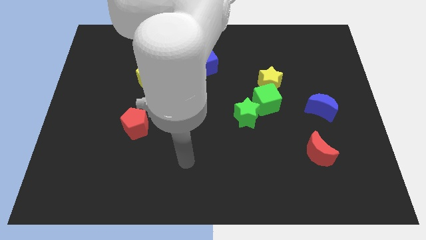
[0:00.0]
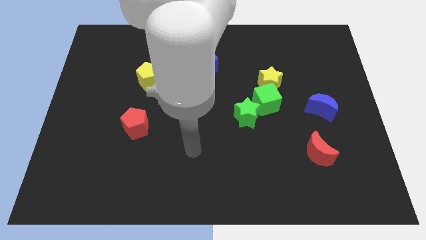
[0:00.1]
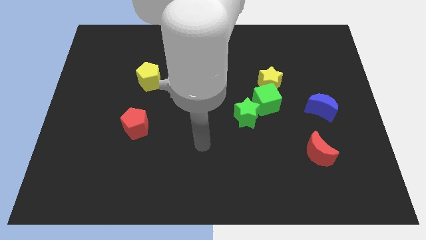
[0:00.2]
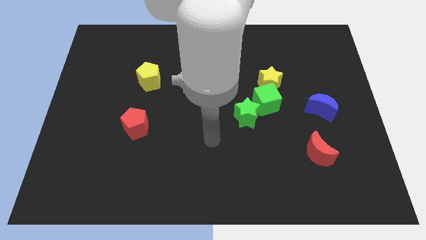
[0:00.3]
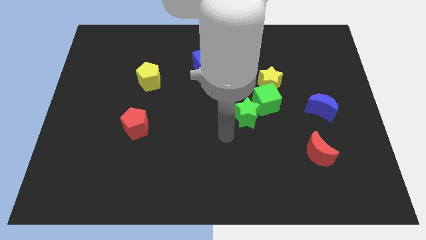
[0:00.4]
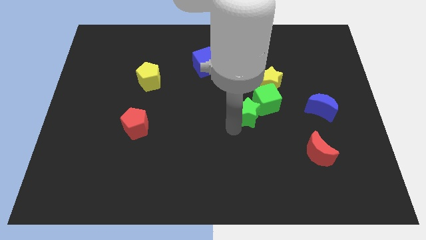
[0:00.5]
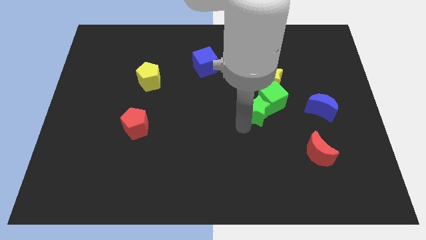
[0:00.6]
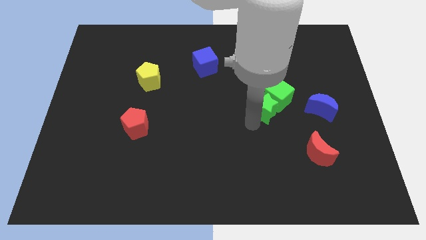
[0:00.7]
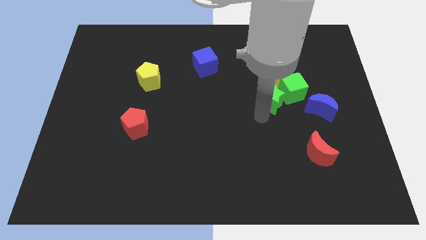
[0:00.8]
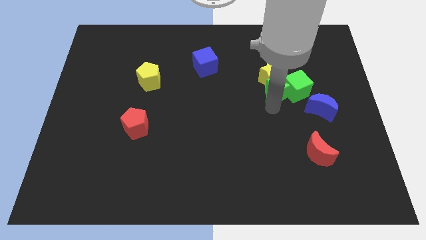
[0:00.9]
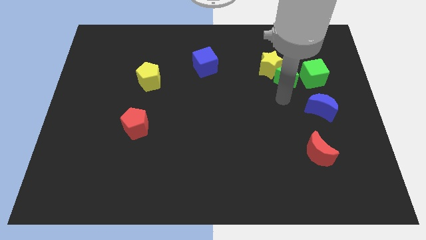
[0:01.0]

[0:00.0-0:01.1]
move the yellow star away from the green cube

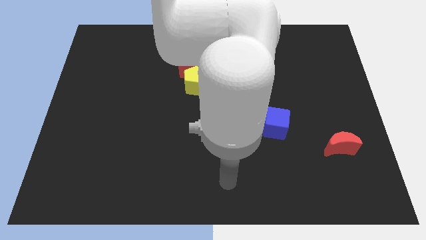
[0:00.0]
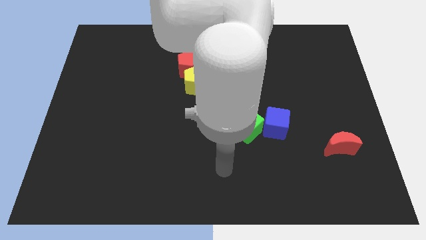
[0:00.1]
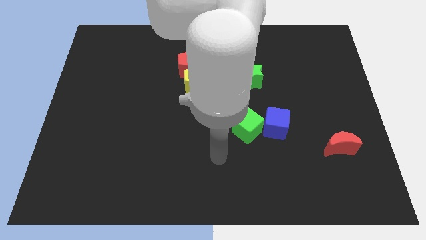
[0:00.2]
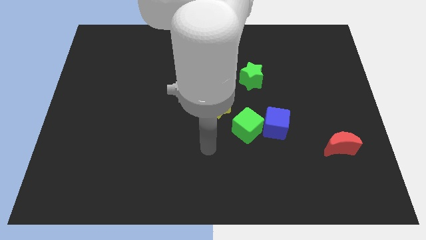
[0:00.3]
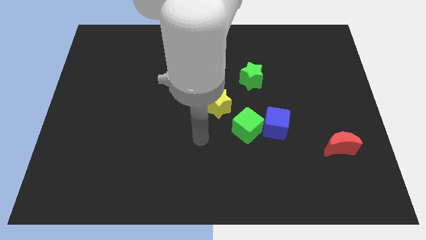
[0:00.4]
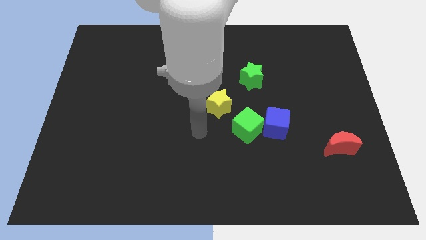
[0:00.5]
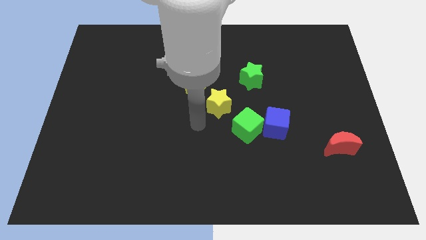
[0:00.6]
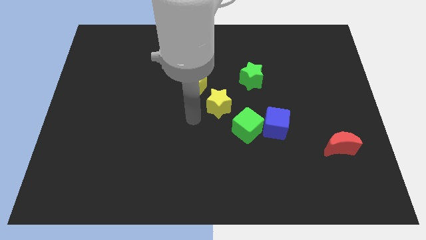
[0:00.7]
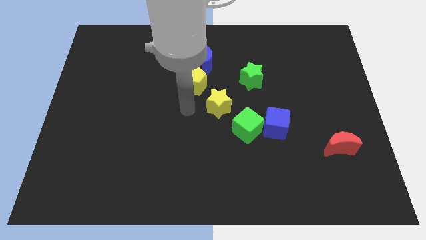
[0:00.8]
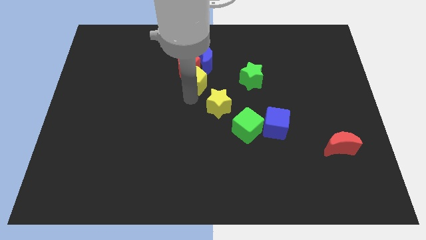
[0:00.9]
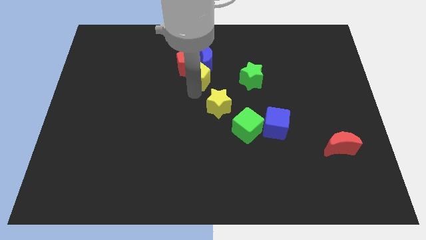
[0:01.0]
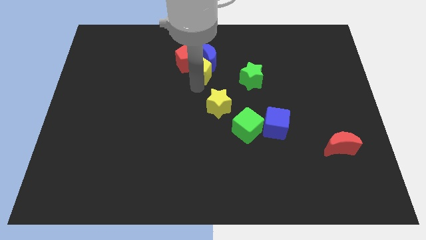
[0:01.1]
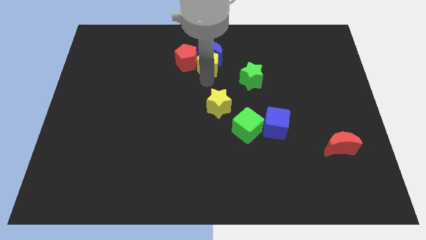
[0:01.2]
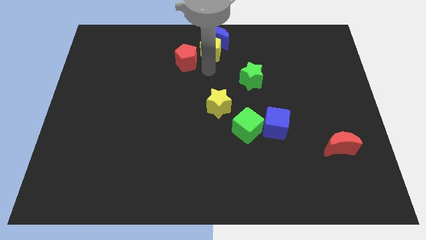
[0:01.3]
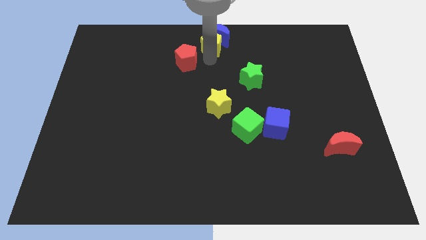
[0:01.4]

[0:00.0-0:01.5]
separate the red pentagon from the blue moon and yellow pentagon

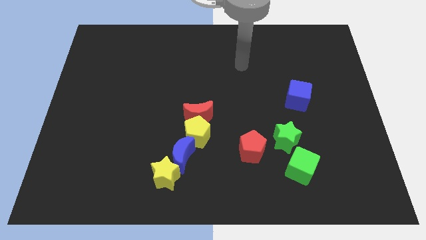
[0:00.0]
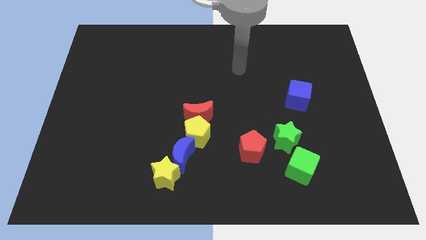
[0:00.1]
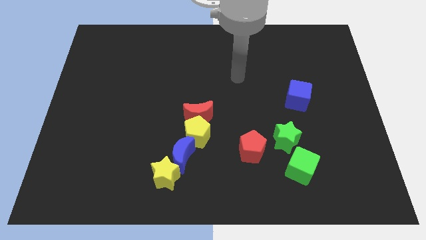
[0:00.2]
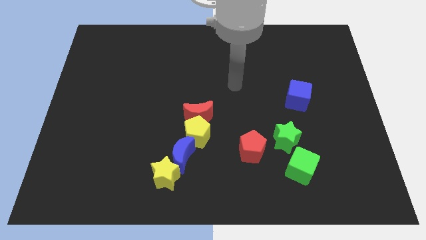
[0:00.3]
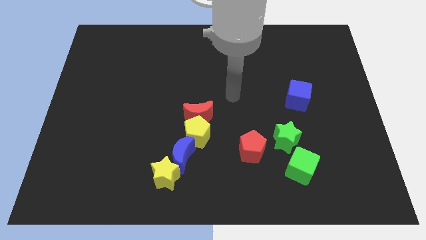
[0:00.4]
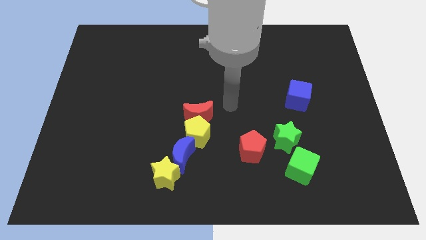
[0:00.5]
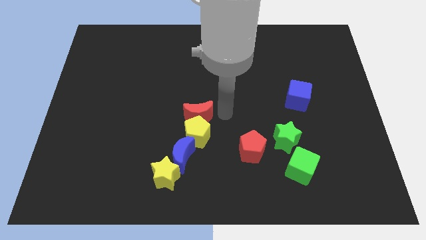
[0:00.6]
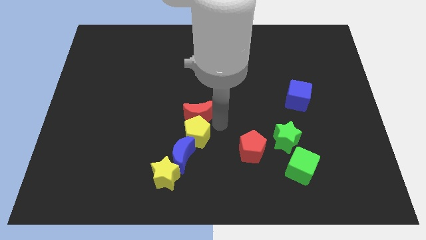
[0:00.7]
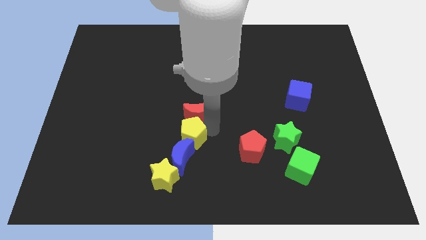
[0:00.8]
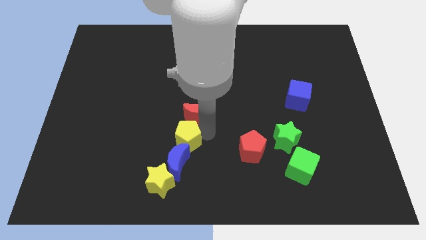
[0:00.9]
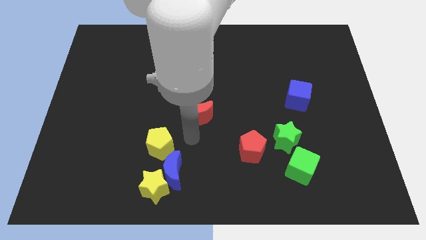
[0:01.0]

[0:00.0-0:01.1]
separate the red moon from the yellow pentagon

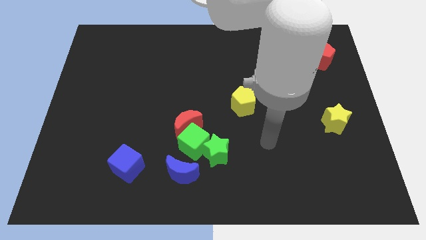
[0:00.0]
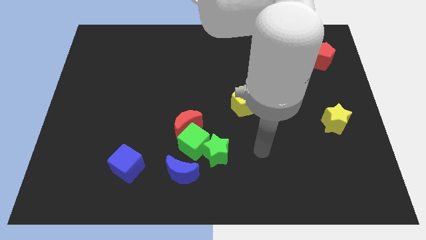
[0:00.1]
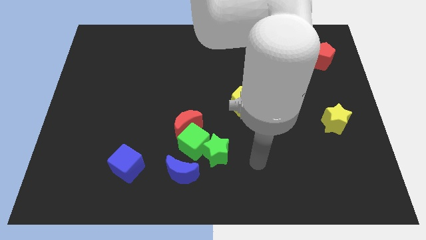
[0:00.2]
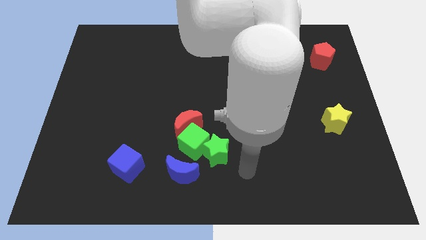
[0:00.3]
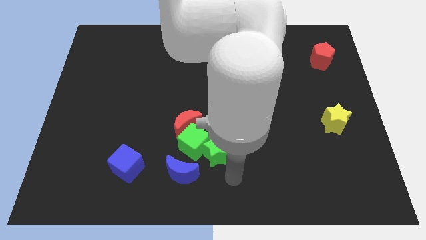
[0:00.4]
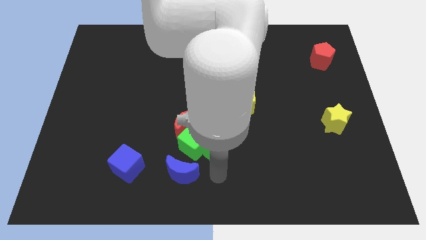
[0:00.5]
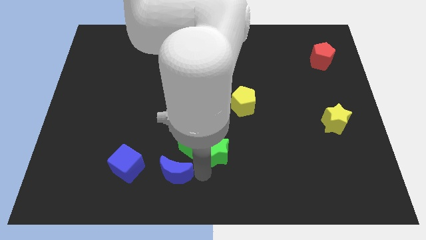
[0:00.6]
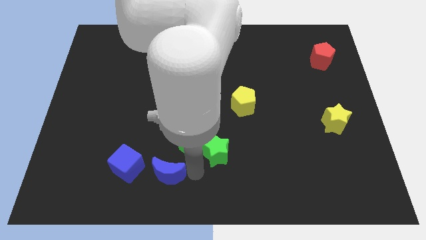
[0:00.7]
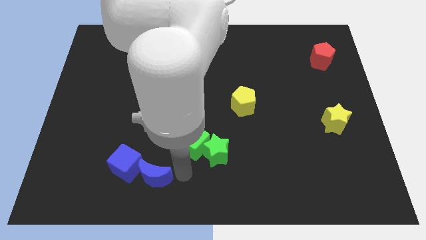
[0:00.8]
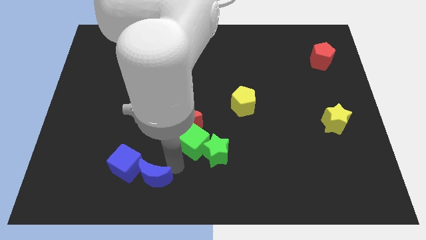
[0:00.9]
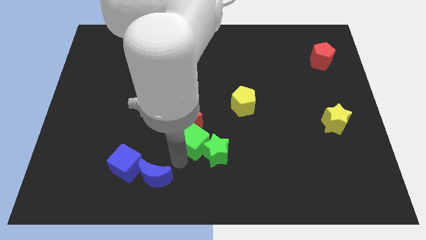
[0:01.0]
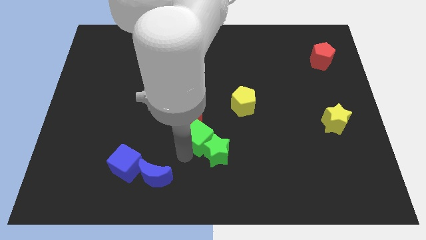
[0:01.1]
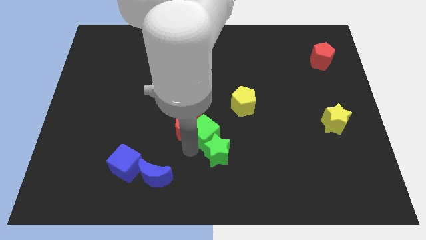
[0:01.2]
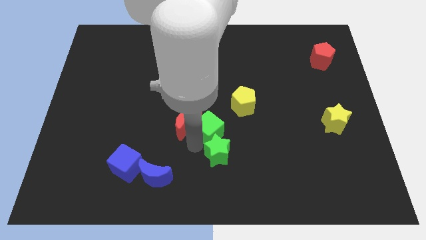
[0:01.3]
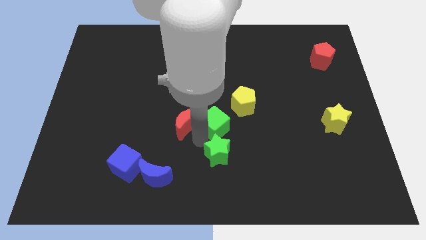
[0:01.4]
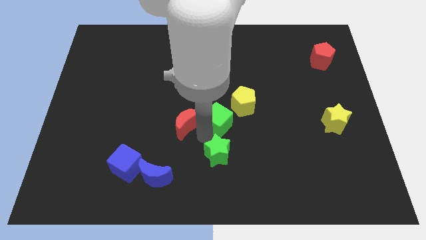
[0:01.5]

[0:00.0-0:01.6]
separate the green cube from the red moon, green star, and blue moon

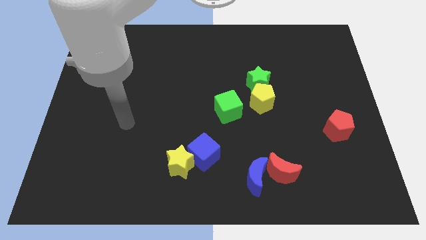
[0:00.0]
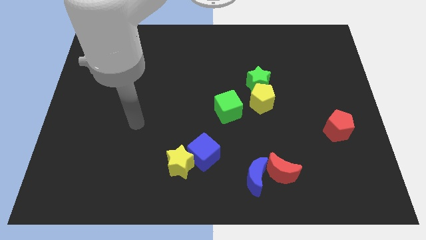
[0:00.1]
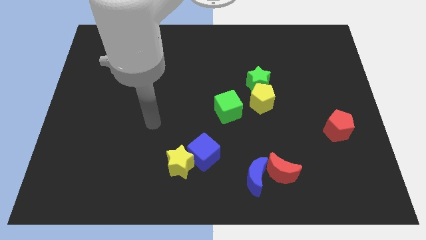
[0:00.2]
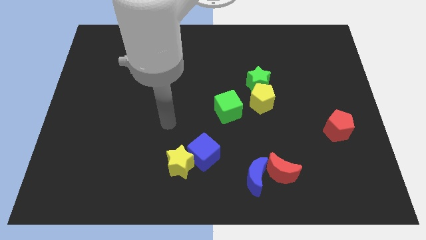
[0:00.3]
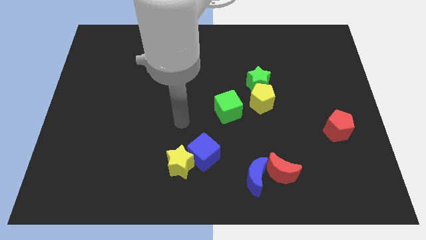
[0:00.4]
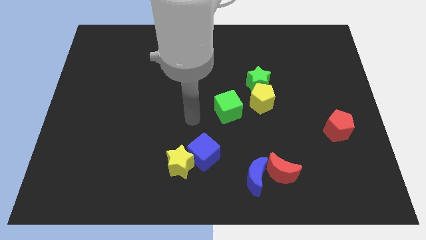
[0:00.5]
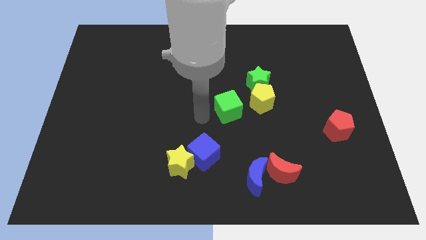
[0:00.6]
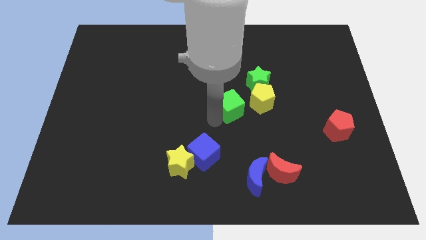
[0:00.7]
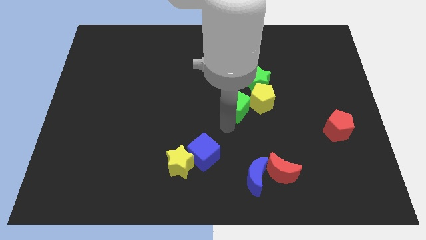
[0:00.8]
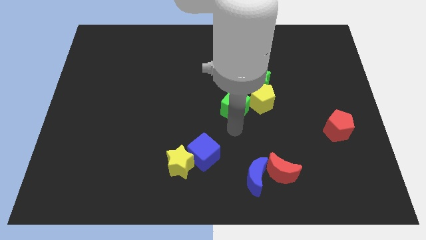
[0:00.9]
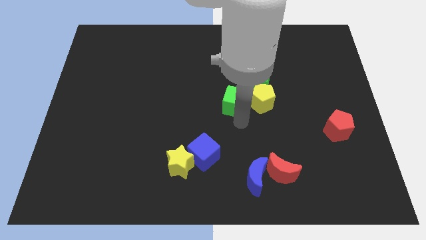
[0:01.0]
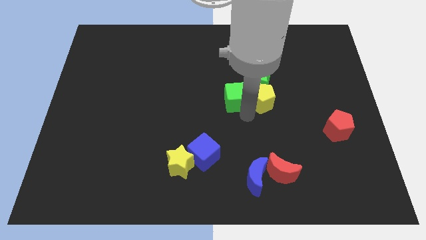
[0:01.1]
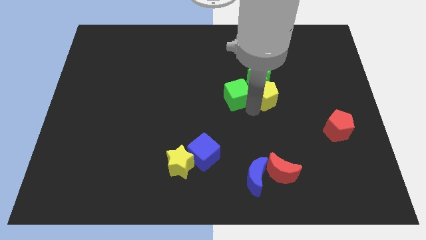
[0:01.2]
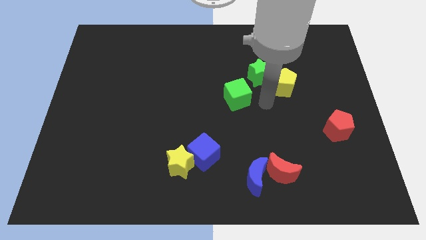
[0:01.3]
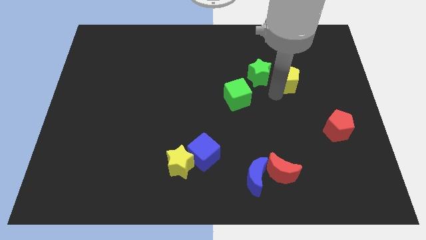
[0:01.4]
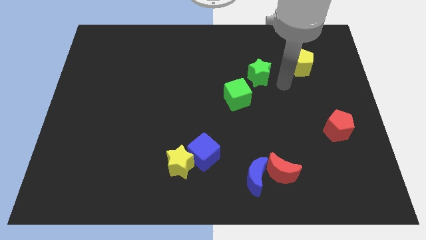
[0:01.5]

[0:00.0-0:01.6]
move the green star away from the yellow pentagon

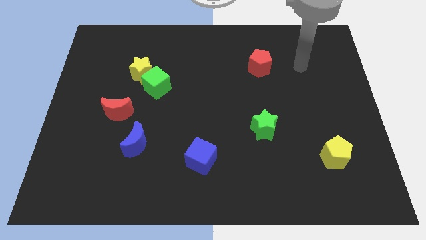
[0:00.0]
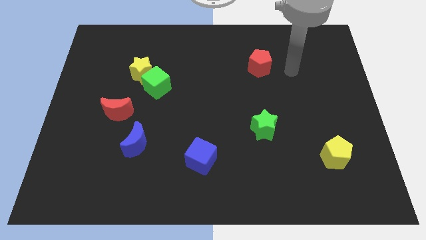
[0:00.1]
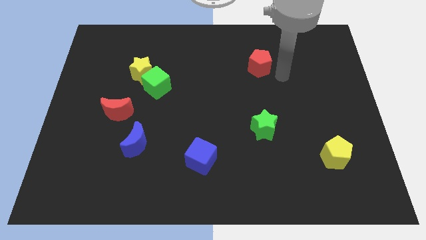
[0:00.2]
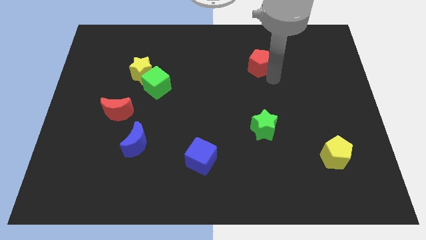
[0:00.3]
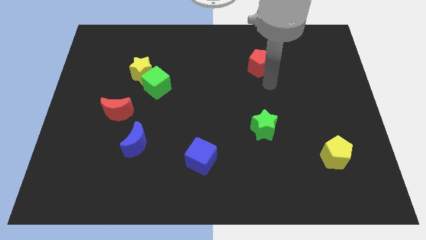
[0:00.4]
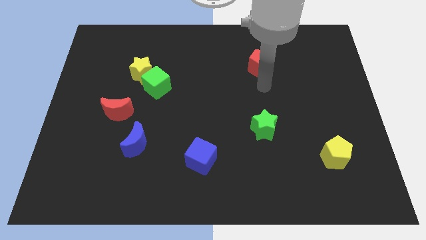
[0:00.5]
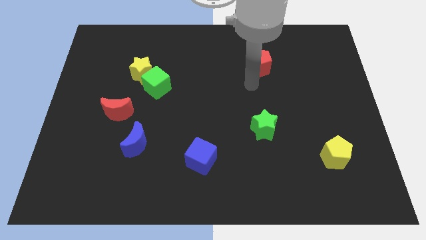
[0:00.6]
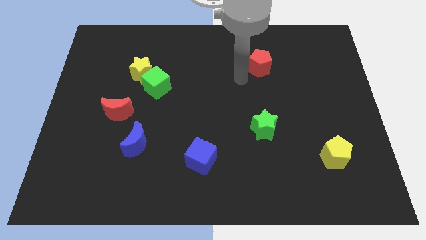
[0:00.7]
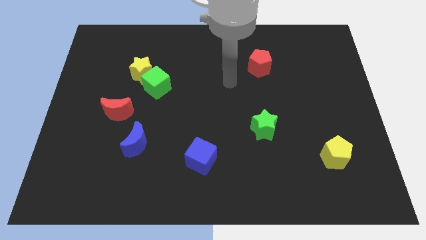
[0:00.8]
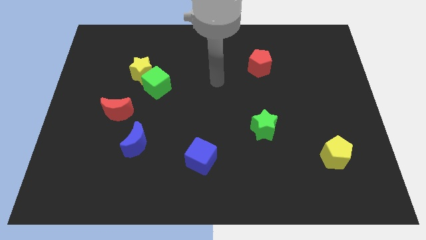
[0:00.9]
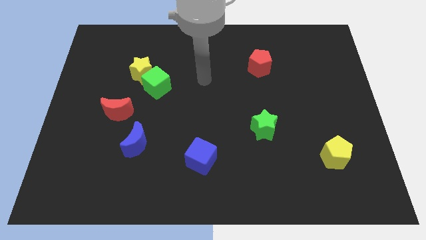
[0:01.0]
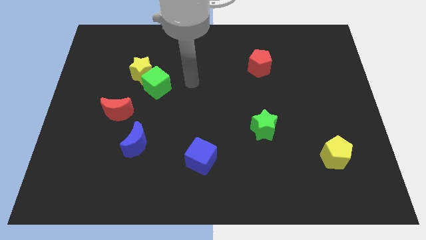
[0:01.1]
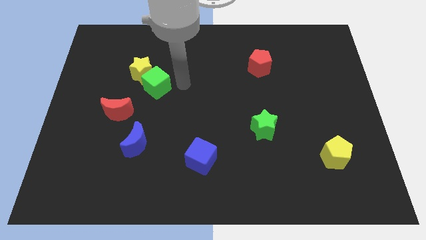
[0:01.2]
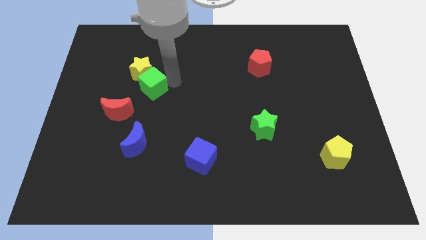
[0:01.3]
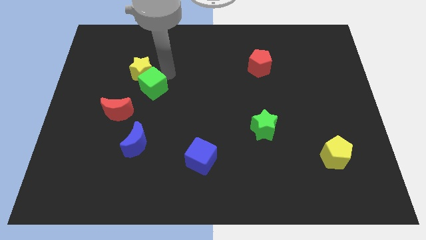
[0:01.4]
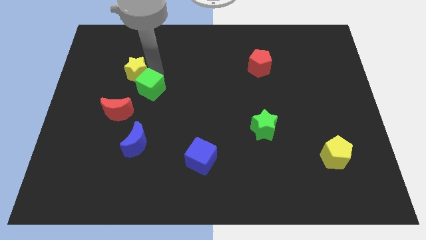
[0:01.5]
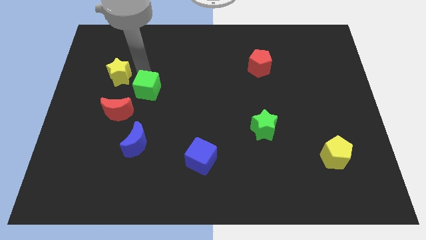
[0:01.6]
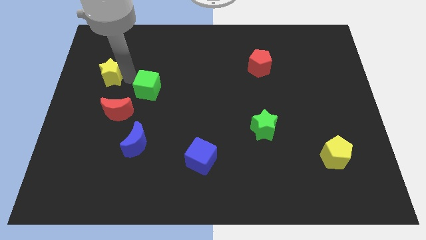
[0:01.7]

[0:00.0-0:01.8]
pull the green cube apart from the yellow star

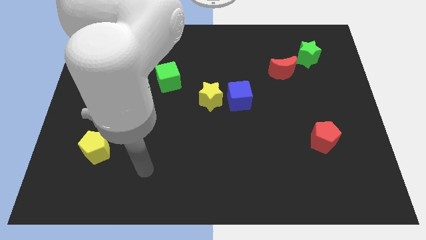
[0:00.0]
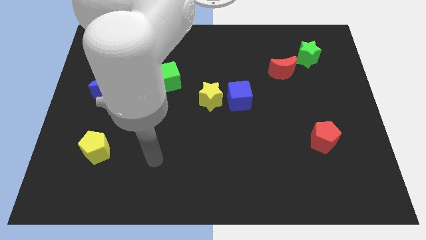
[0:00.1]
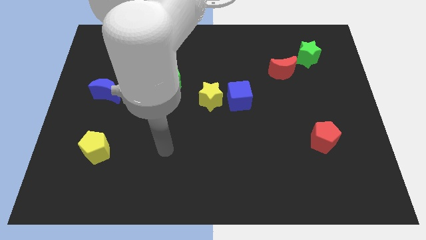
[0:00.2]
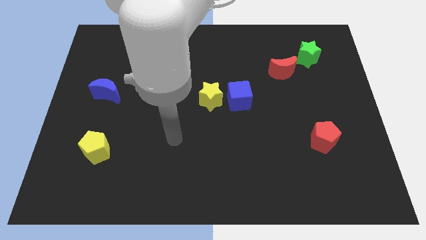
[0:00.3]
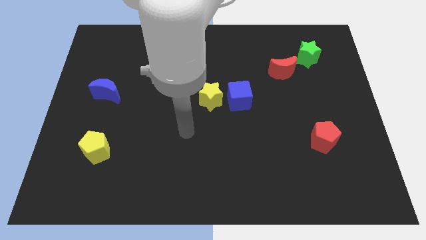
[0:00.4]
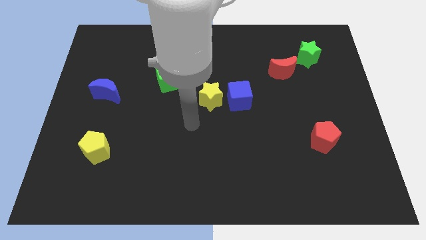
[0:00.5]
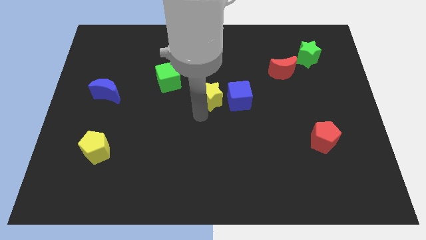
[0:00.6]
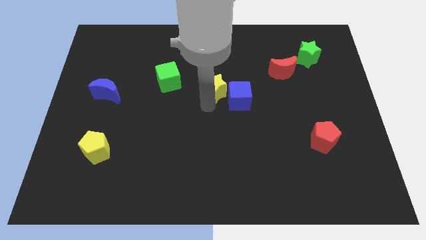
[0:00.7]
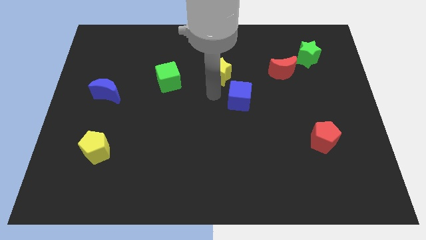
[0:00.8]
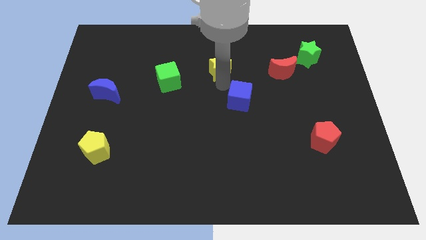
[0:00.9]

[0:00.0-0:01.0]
separate the blue cube from the yellow star
